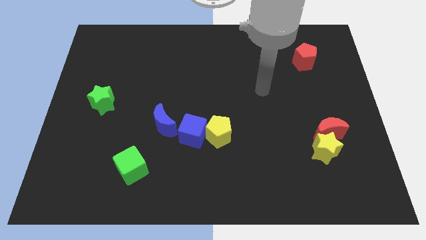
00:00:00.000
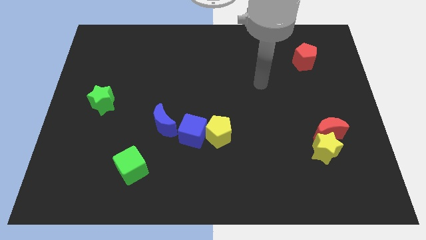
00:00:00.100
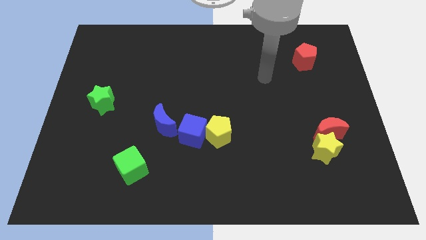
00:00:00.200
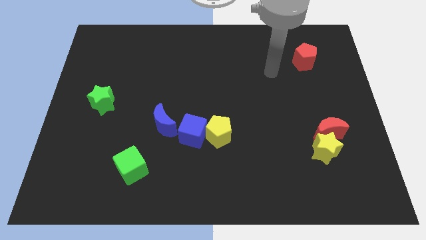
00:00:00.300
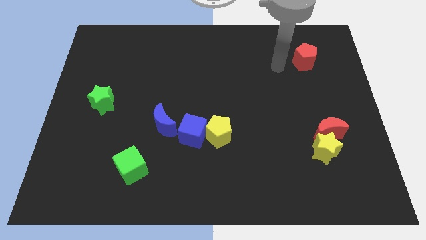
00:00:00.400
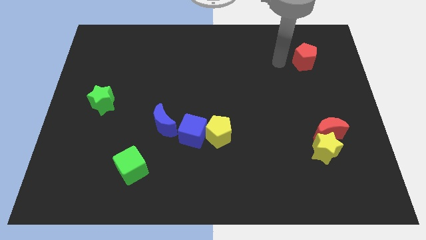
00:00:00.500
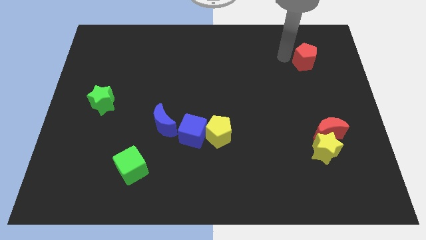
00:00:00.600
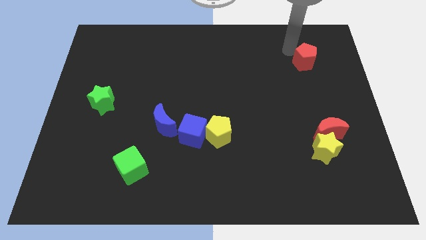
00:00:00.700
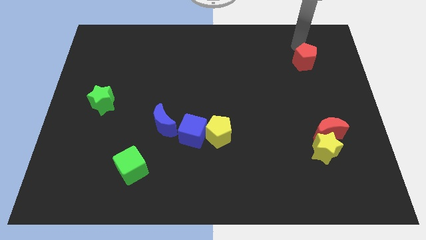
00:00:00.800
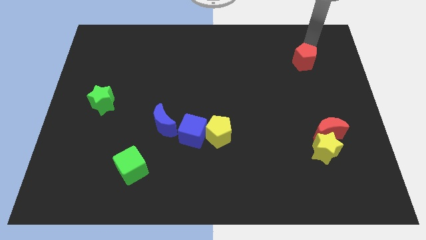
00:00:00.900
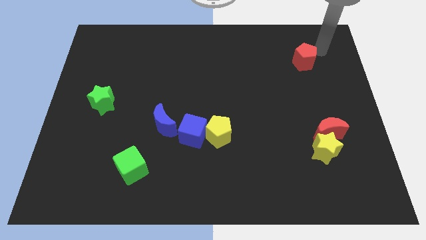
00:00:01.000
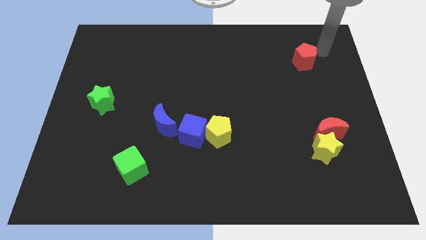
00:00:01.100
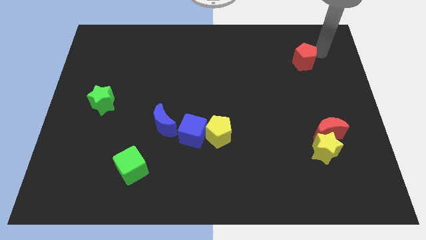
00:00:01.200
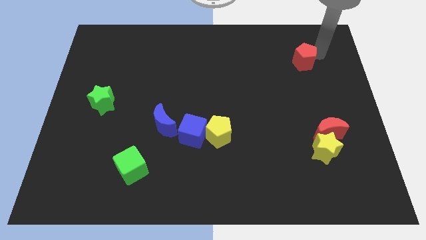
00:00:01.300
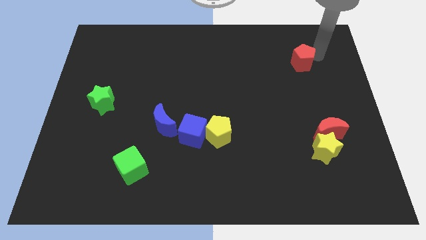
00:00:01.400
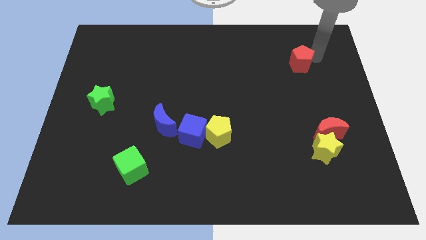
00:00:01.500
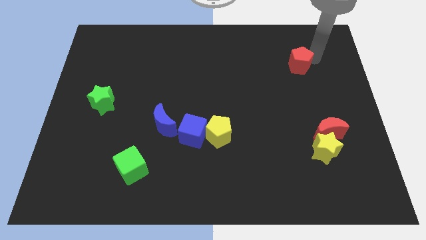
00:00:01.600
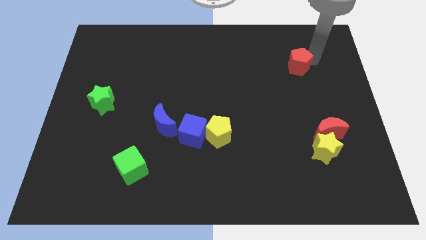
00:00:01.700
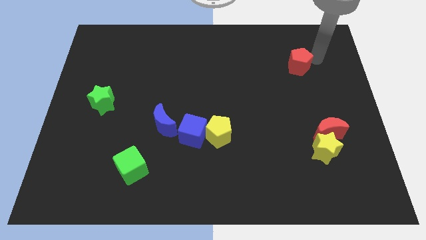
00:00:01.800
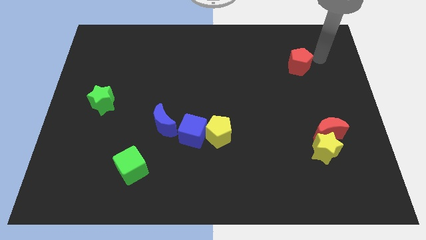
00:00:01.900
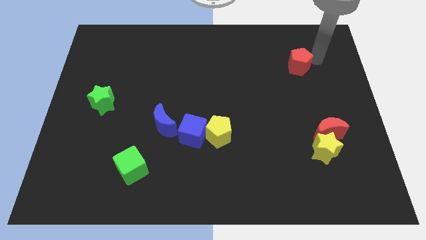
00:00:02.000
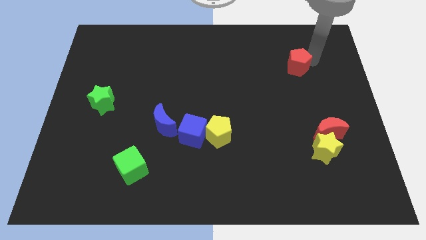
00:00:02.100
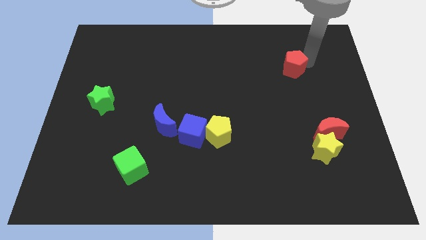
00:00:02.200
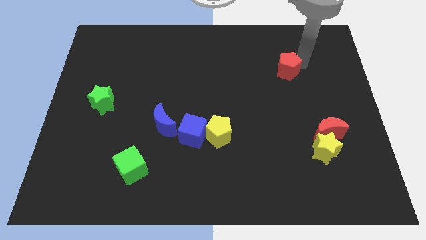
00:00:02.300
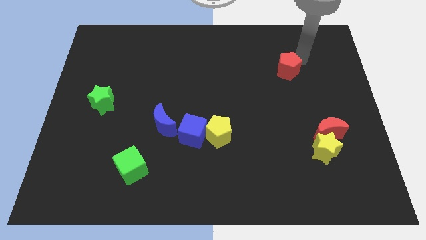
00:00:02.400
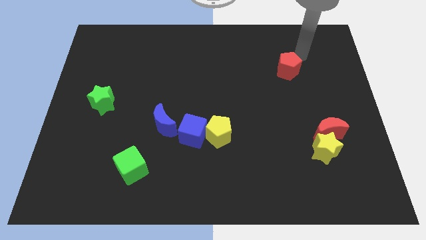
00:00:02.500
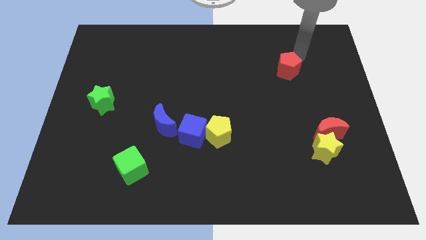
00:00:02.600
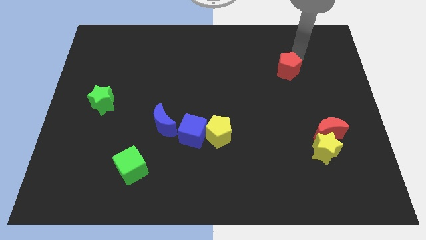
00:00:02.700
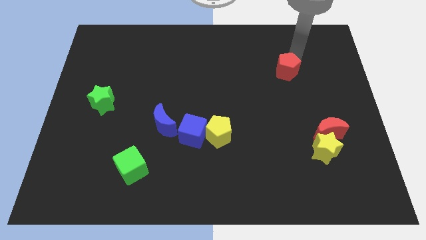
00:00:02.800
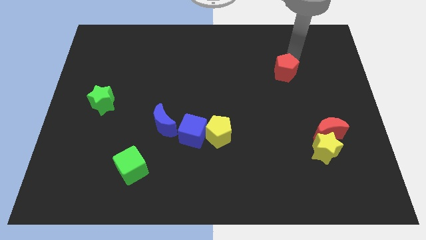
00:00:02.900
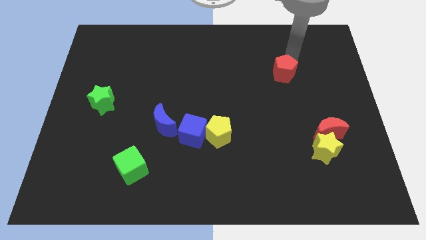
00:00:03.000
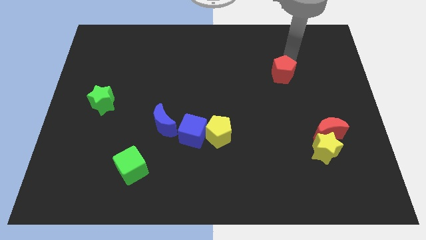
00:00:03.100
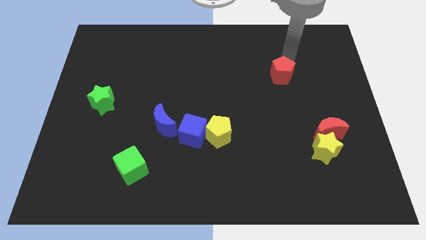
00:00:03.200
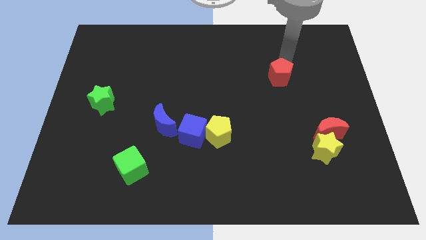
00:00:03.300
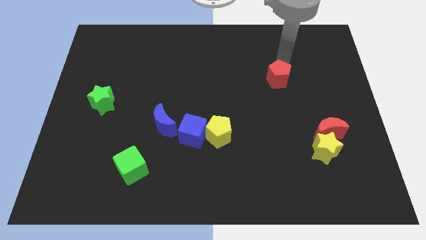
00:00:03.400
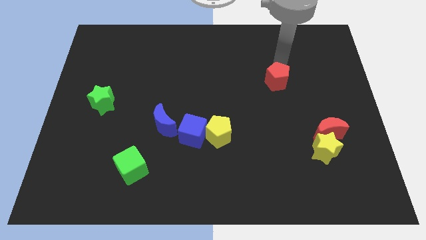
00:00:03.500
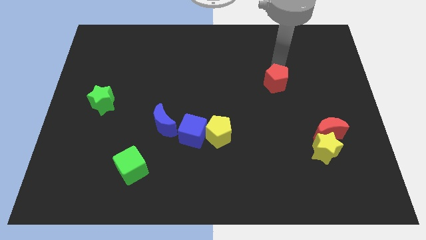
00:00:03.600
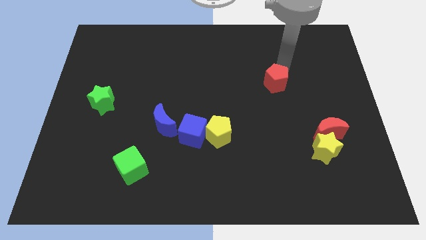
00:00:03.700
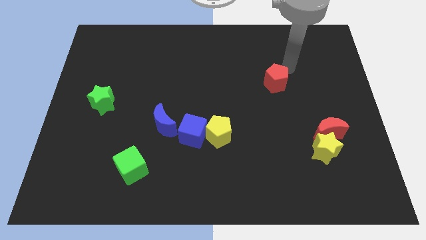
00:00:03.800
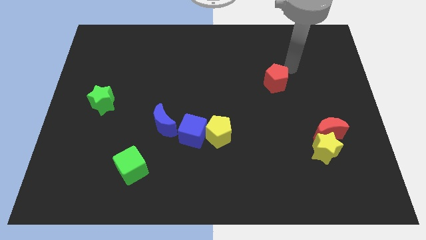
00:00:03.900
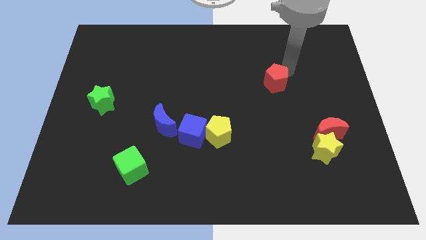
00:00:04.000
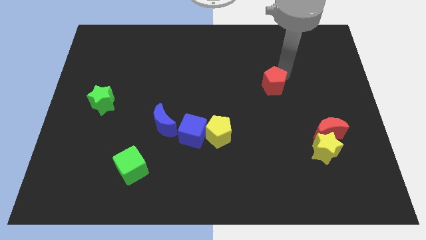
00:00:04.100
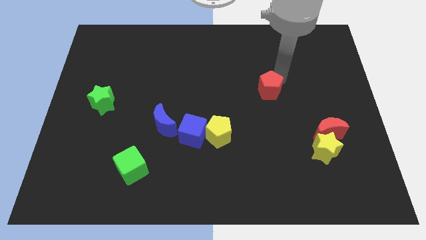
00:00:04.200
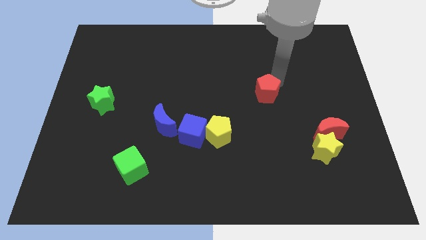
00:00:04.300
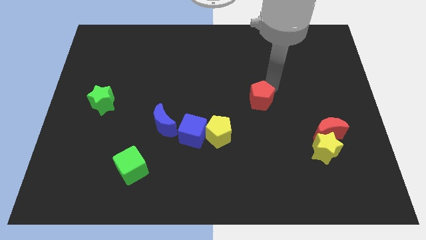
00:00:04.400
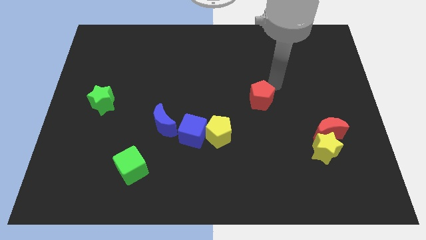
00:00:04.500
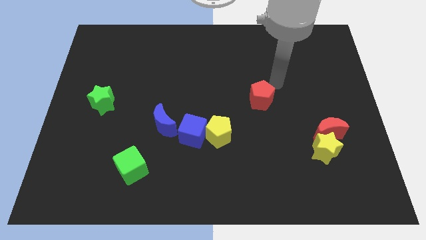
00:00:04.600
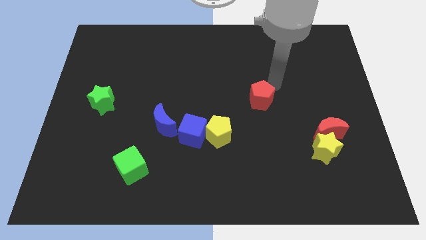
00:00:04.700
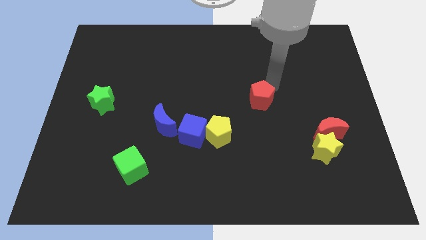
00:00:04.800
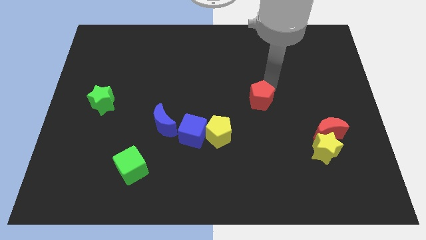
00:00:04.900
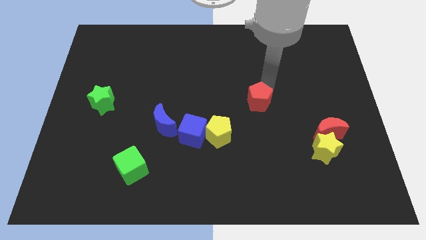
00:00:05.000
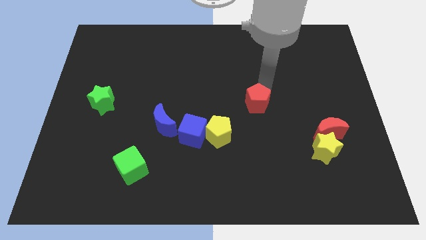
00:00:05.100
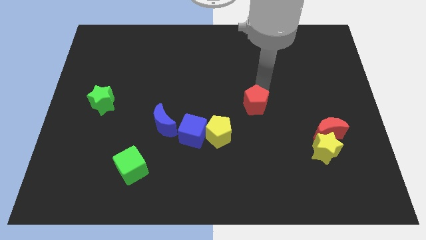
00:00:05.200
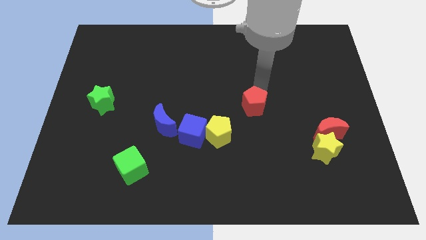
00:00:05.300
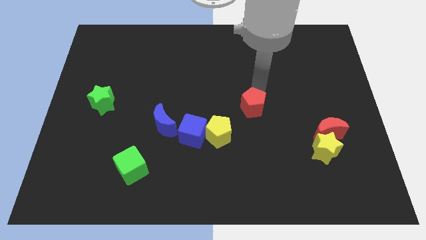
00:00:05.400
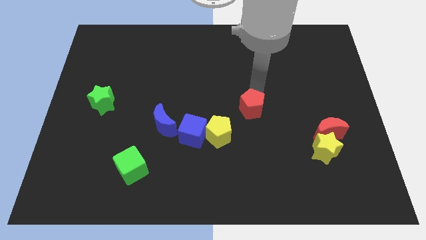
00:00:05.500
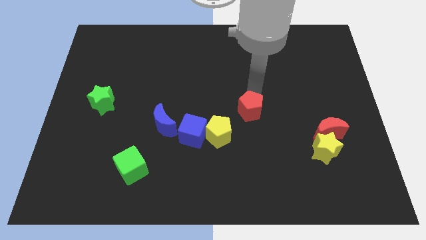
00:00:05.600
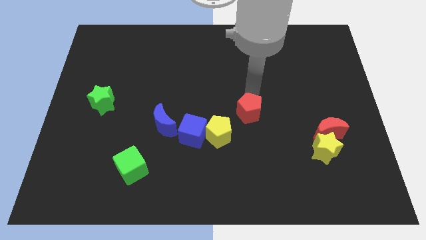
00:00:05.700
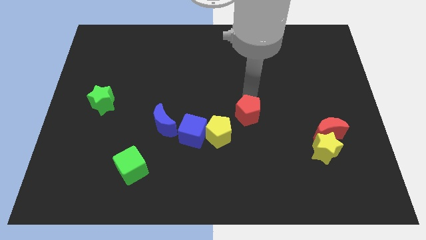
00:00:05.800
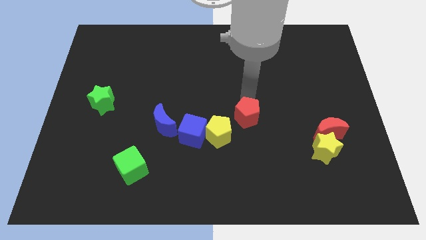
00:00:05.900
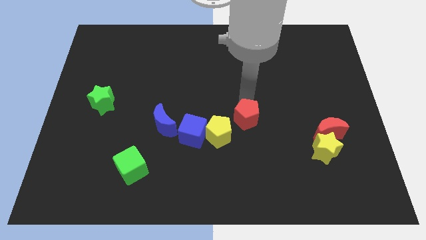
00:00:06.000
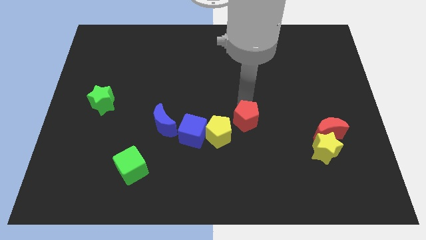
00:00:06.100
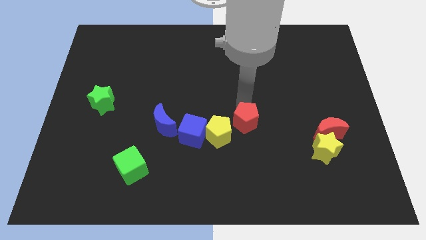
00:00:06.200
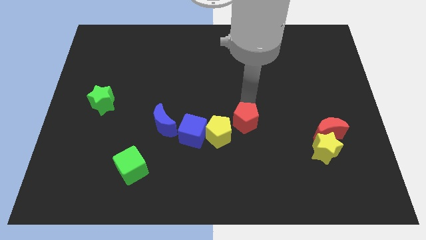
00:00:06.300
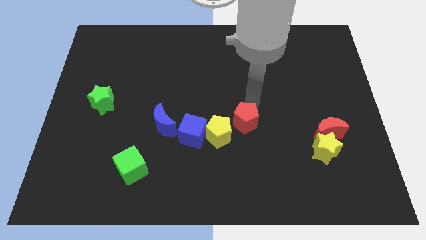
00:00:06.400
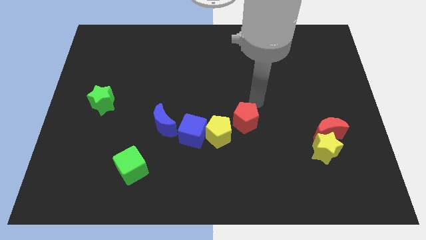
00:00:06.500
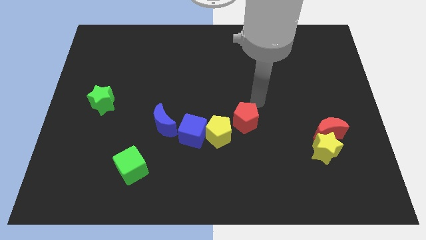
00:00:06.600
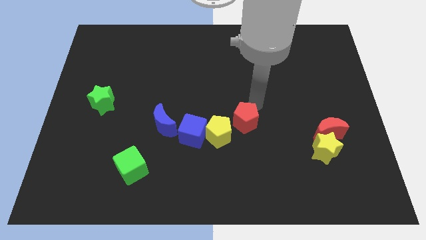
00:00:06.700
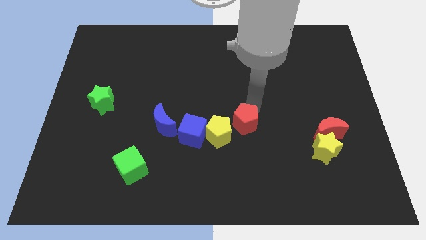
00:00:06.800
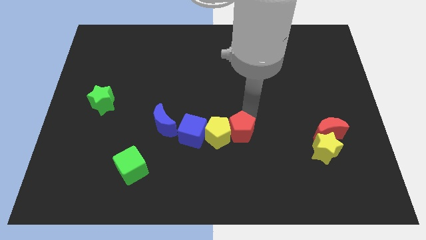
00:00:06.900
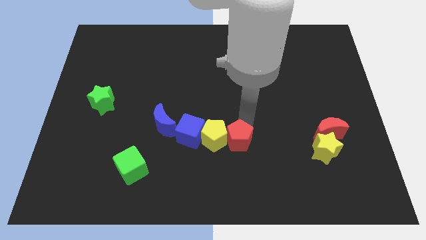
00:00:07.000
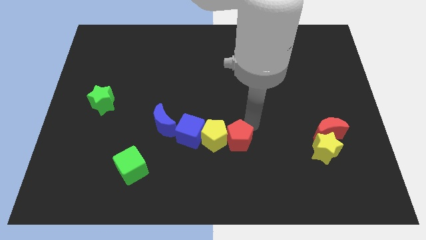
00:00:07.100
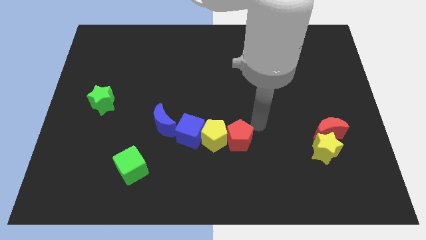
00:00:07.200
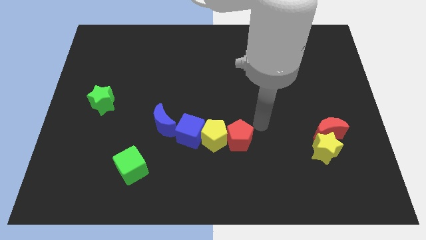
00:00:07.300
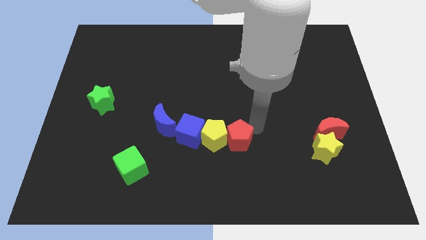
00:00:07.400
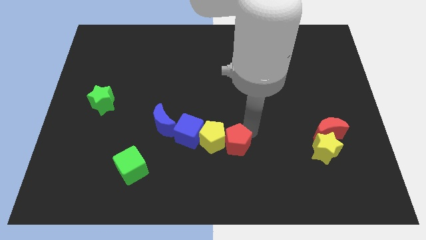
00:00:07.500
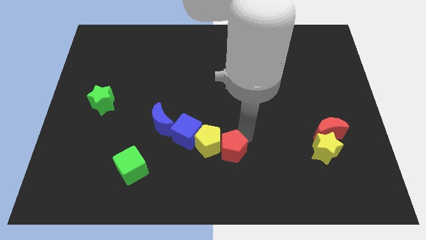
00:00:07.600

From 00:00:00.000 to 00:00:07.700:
push the red pentagon diagonally down and to the right of the blue cube
